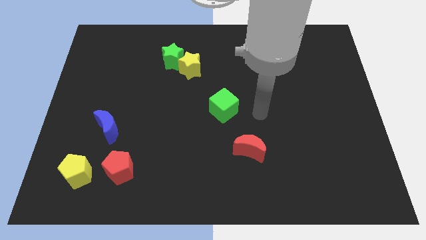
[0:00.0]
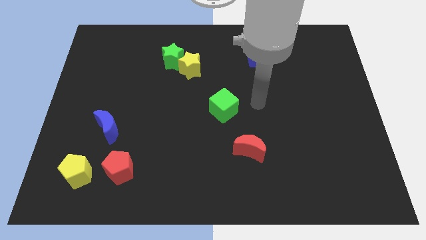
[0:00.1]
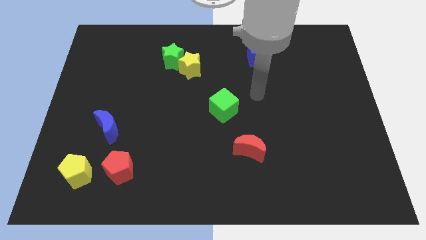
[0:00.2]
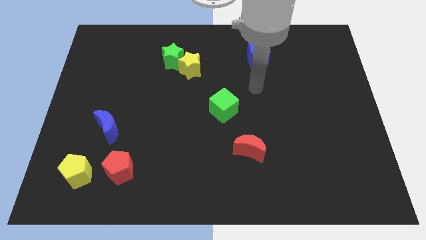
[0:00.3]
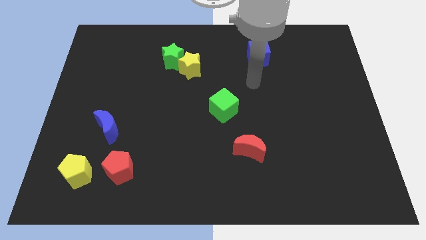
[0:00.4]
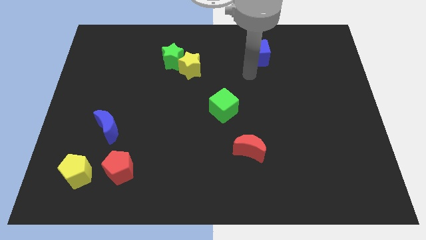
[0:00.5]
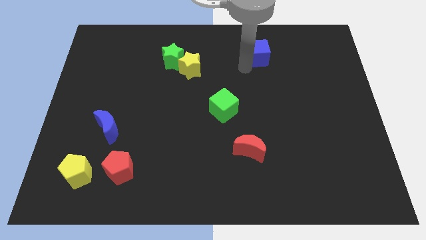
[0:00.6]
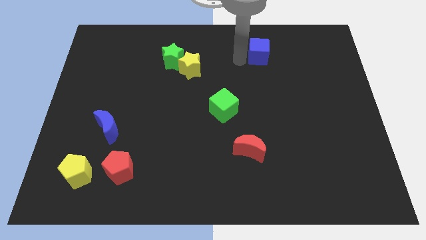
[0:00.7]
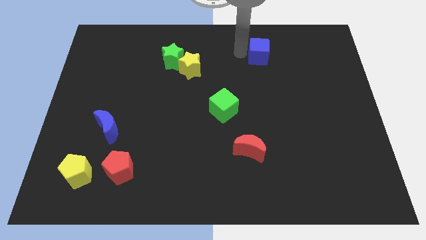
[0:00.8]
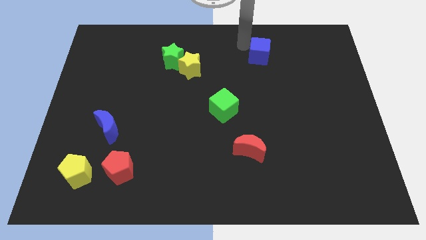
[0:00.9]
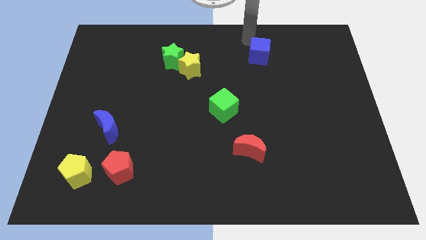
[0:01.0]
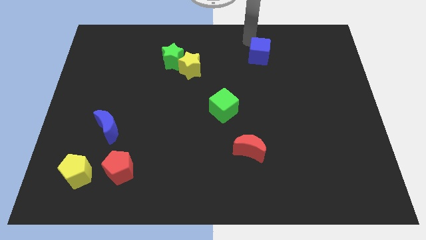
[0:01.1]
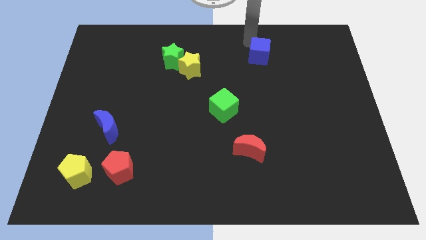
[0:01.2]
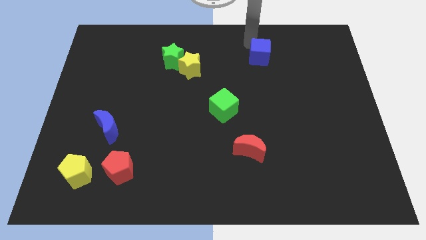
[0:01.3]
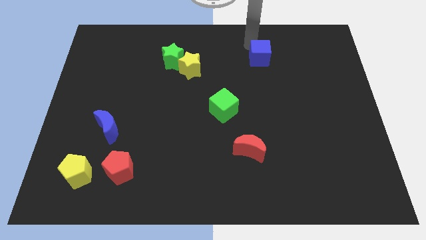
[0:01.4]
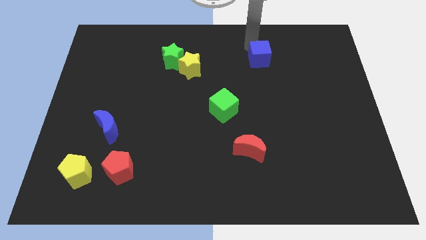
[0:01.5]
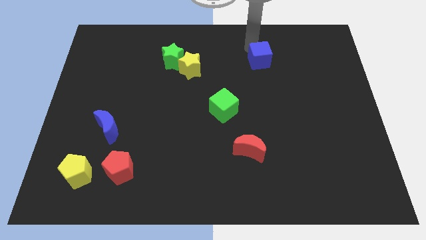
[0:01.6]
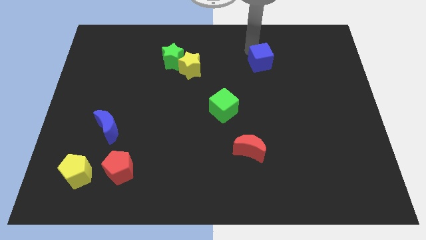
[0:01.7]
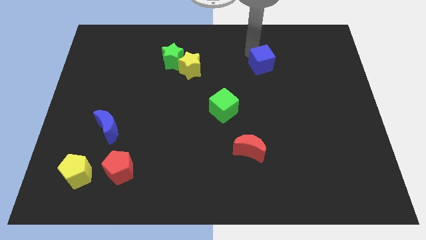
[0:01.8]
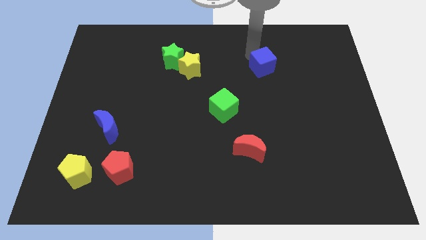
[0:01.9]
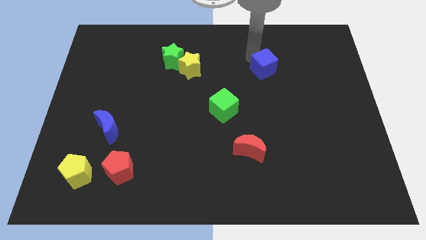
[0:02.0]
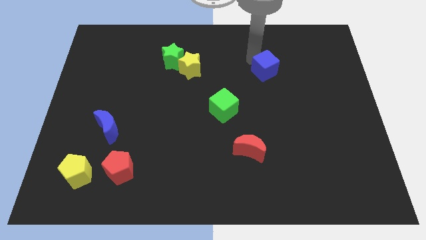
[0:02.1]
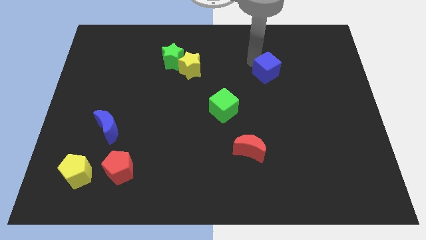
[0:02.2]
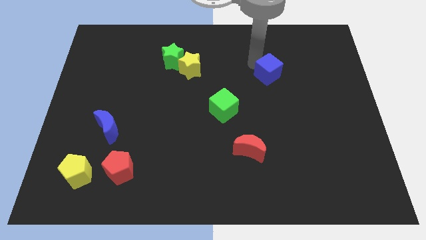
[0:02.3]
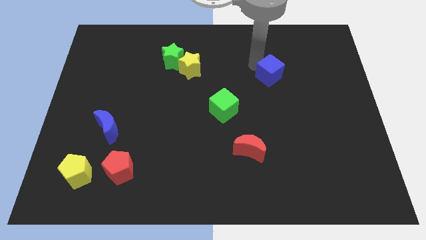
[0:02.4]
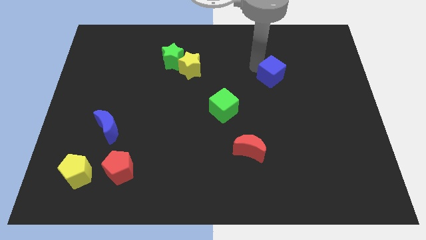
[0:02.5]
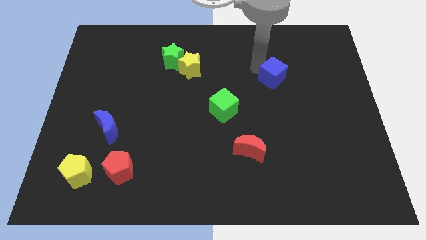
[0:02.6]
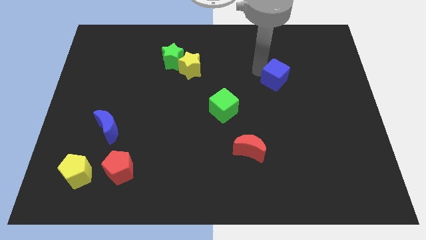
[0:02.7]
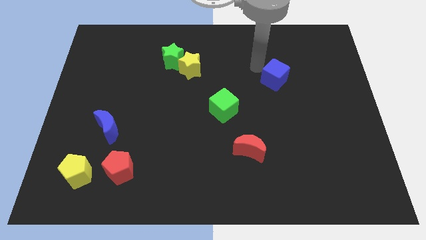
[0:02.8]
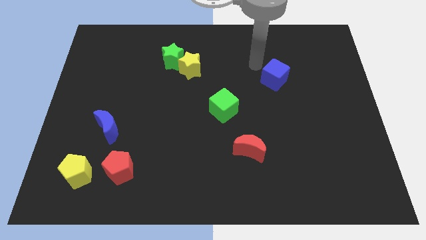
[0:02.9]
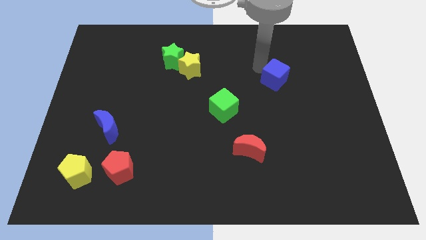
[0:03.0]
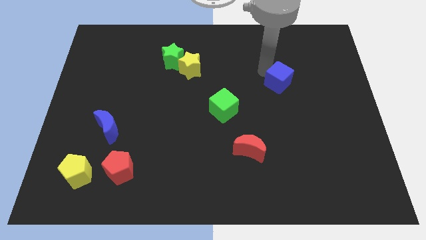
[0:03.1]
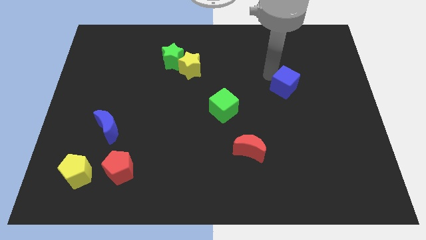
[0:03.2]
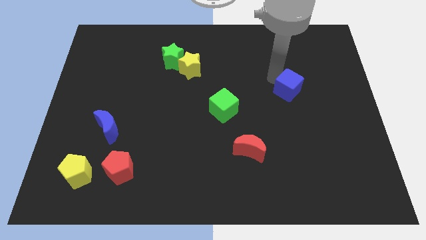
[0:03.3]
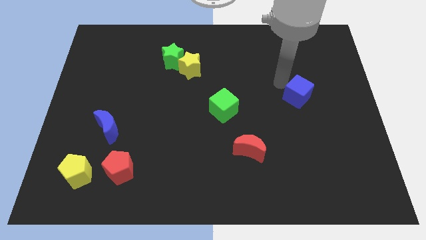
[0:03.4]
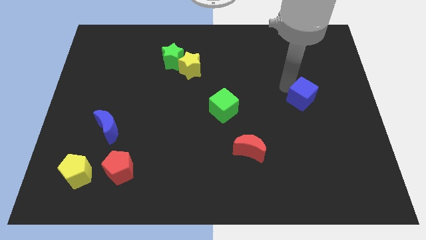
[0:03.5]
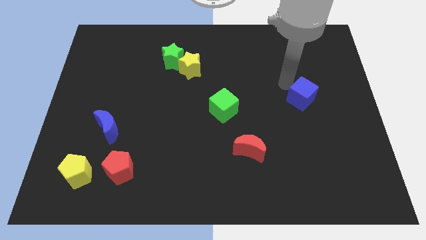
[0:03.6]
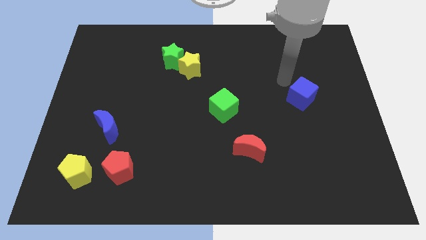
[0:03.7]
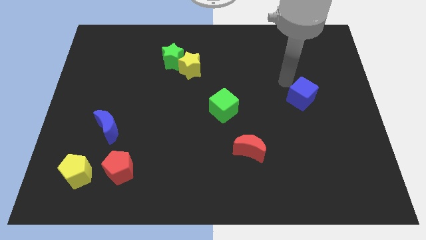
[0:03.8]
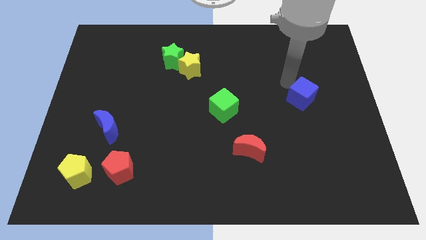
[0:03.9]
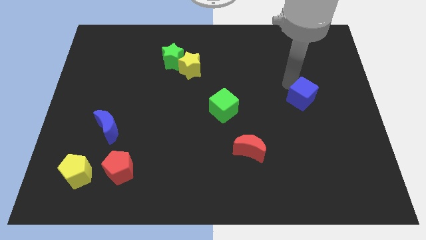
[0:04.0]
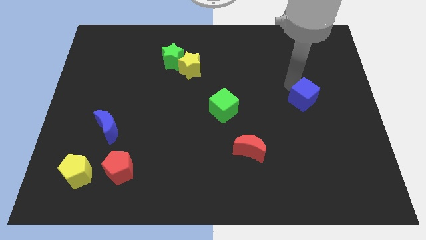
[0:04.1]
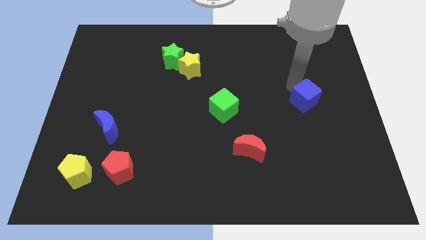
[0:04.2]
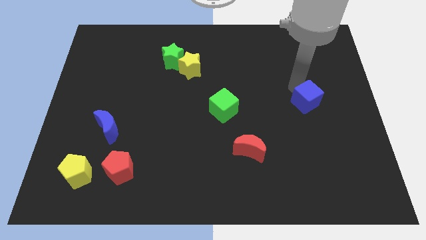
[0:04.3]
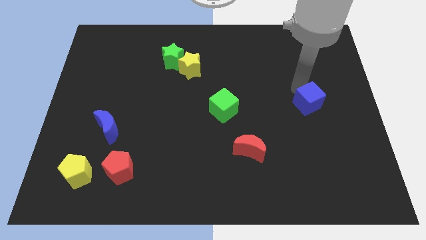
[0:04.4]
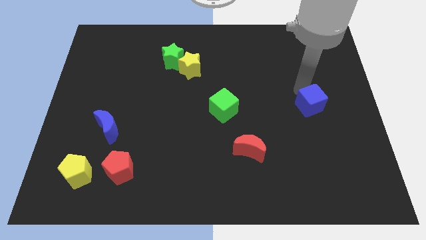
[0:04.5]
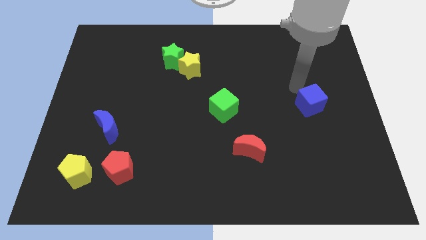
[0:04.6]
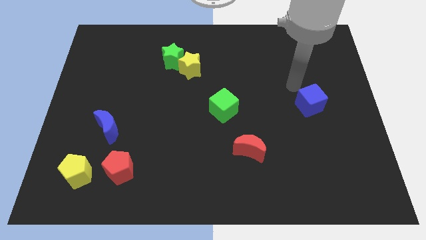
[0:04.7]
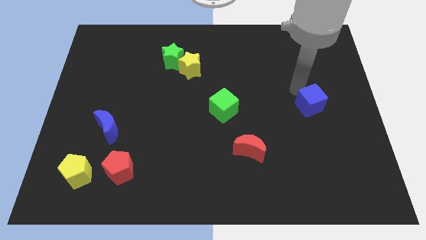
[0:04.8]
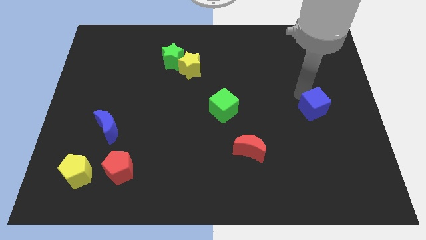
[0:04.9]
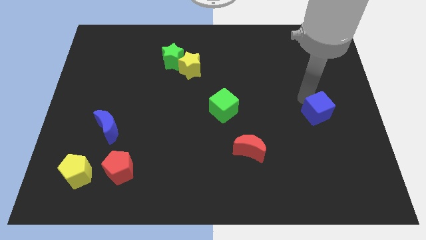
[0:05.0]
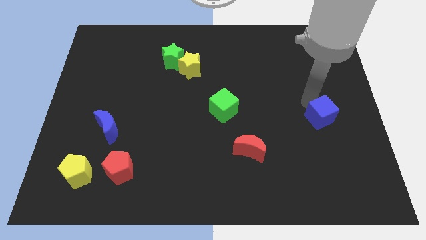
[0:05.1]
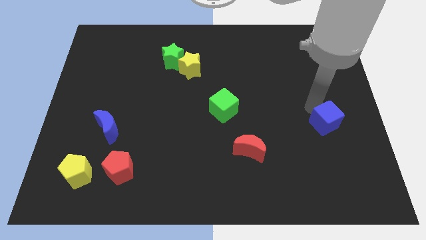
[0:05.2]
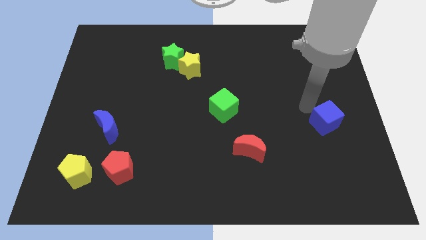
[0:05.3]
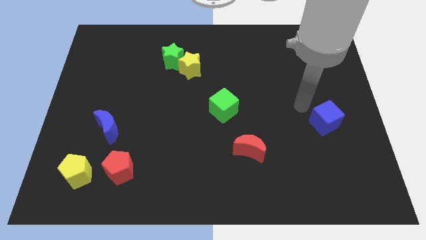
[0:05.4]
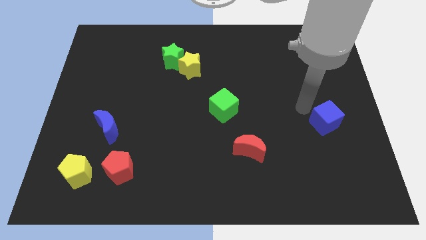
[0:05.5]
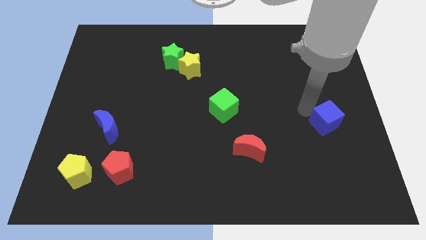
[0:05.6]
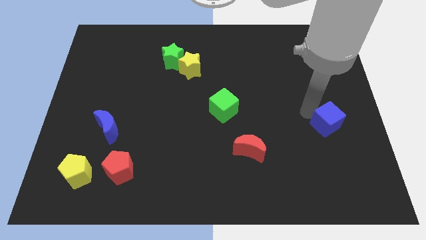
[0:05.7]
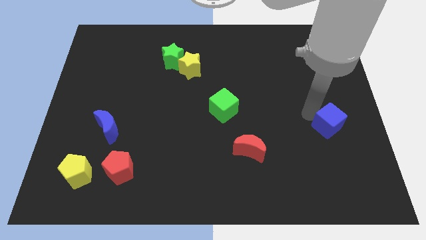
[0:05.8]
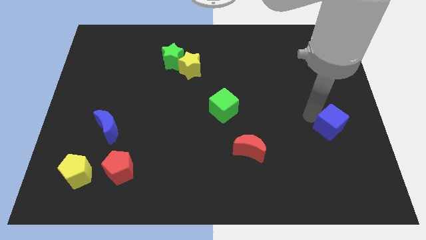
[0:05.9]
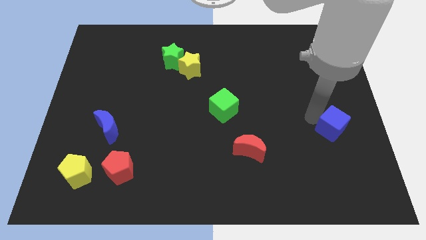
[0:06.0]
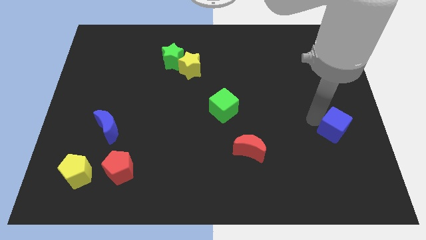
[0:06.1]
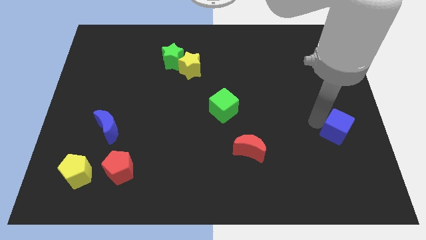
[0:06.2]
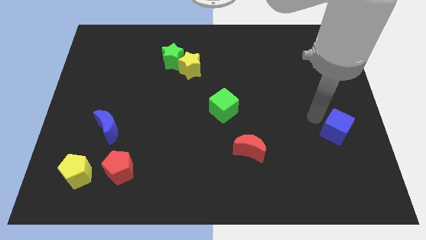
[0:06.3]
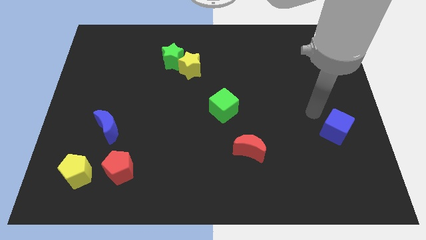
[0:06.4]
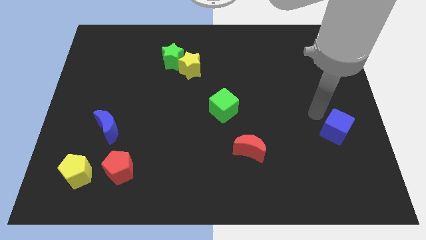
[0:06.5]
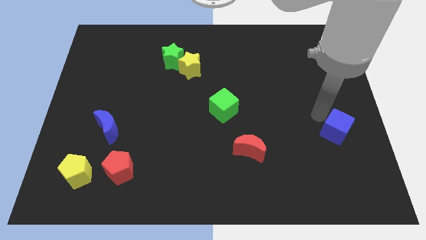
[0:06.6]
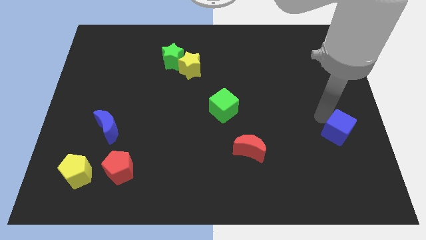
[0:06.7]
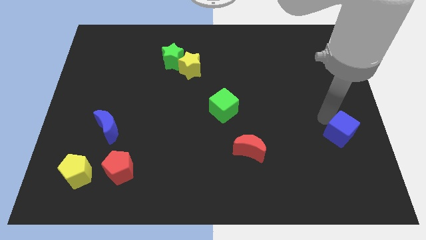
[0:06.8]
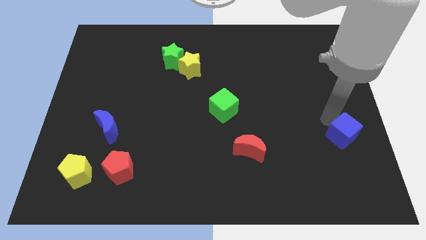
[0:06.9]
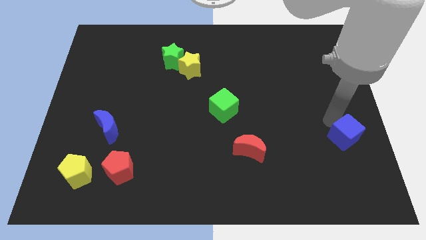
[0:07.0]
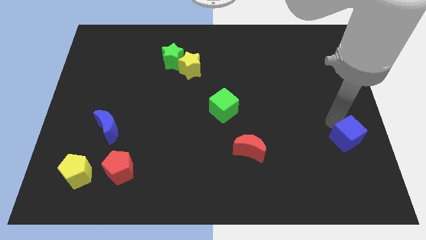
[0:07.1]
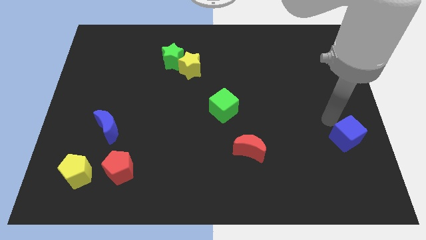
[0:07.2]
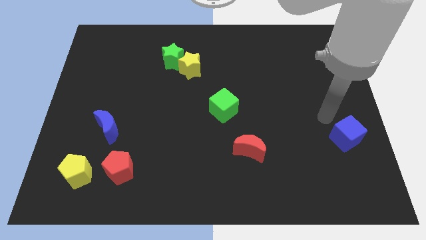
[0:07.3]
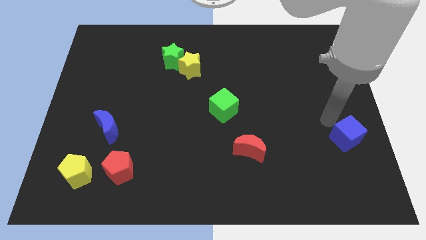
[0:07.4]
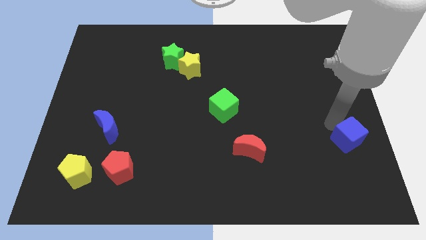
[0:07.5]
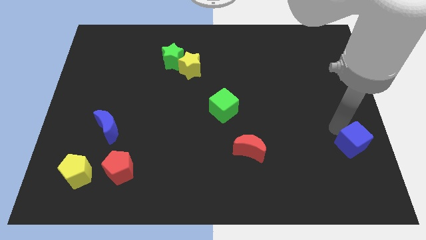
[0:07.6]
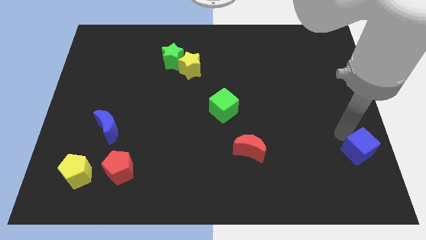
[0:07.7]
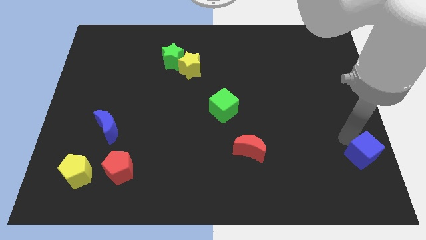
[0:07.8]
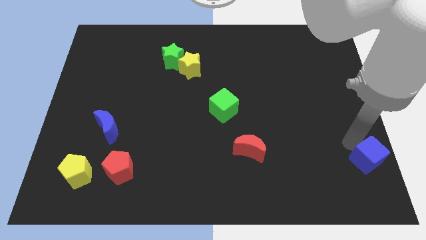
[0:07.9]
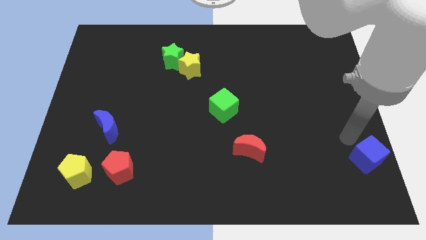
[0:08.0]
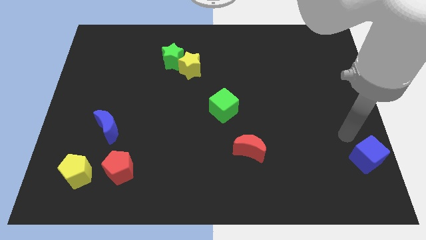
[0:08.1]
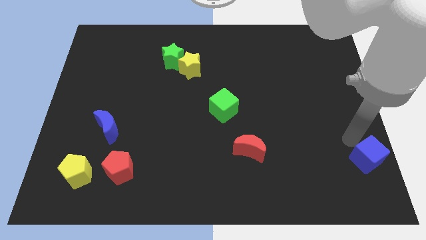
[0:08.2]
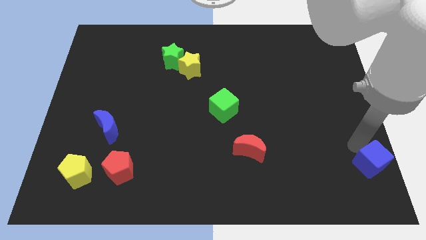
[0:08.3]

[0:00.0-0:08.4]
slide the blue cube to the lower right corner
